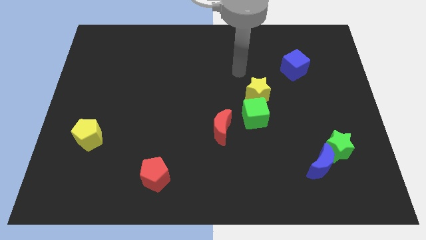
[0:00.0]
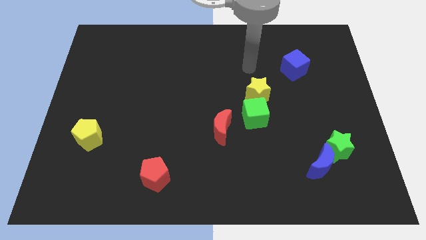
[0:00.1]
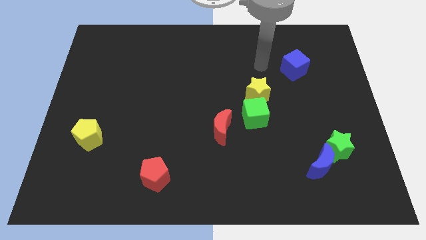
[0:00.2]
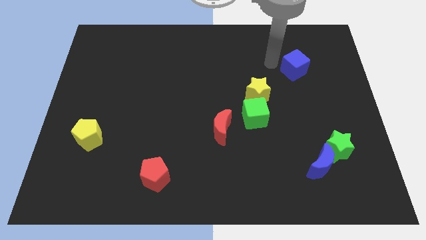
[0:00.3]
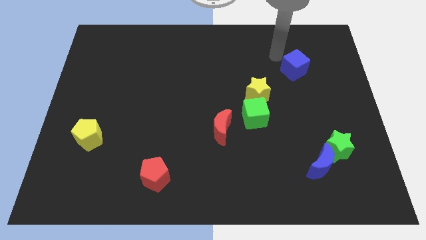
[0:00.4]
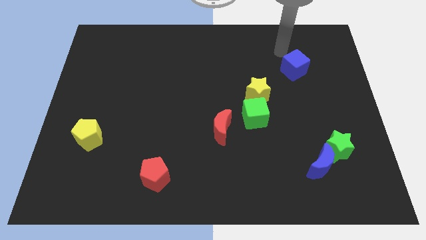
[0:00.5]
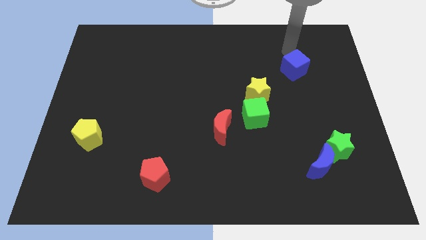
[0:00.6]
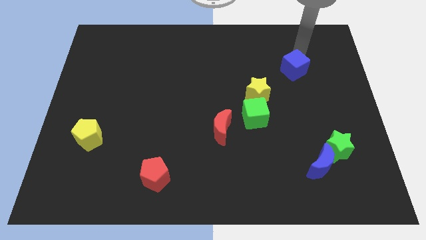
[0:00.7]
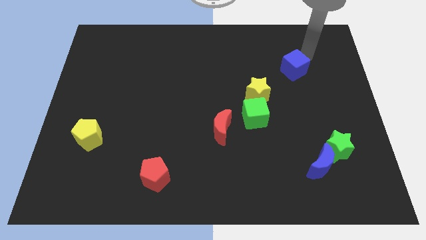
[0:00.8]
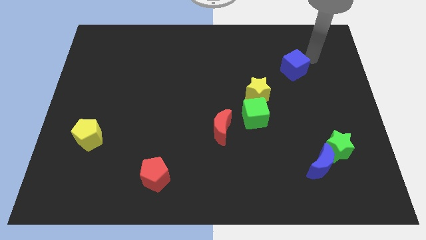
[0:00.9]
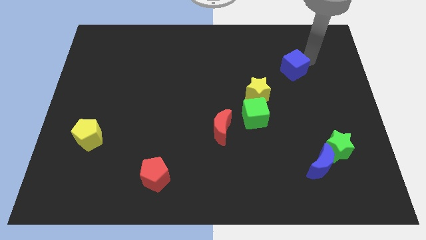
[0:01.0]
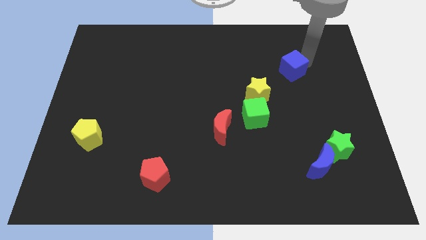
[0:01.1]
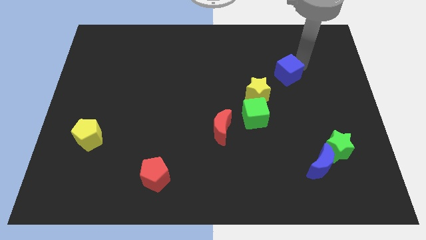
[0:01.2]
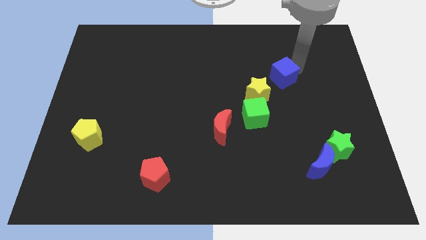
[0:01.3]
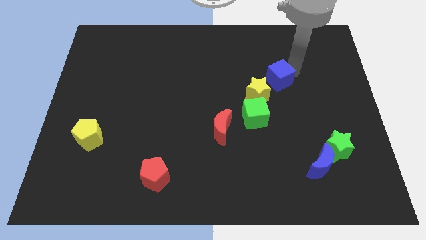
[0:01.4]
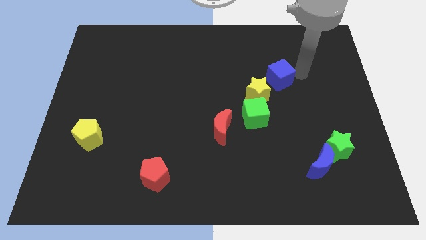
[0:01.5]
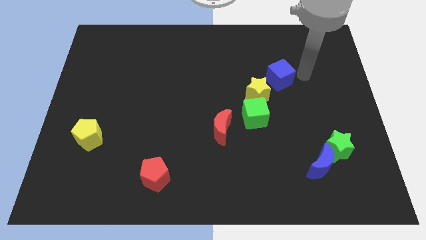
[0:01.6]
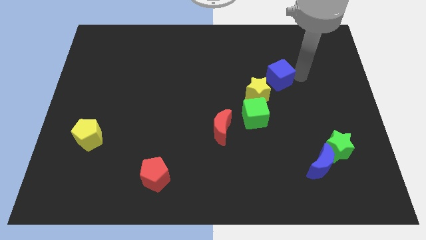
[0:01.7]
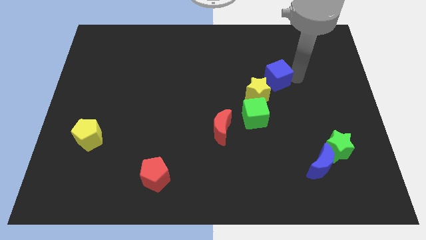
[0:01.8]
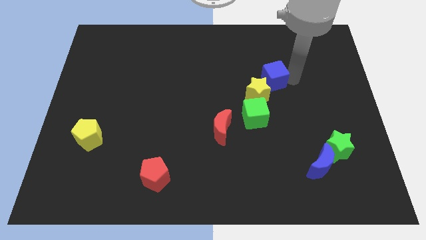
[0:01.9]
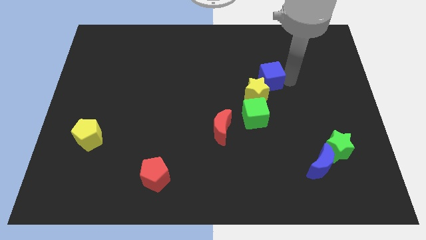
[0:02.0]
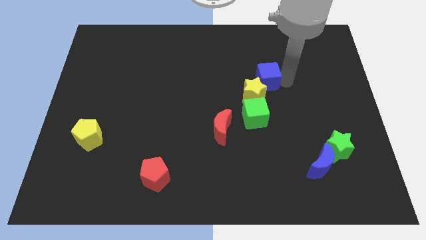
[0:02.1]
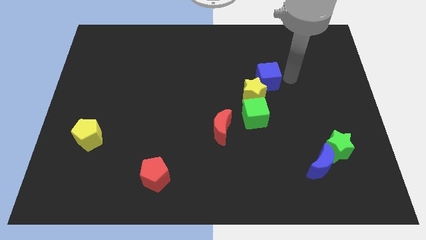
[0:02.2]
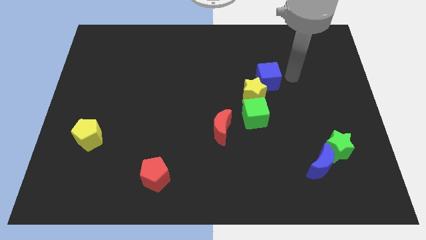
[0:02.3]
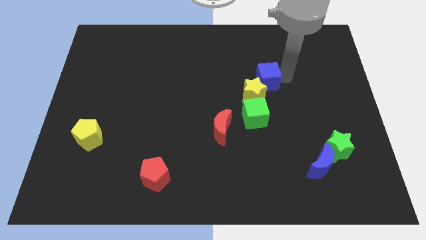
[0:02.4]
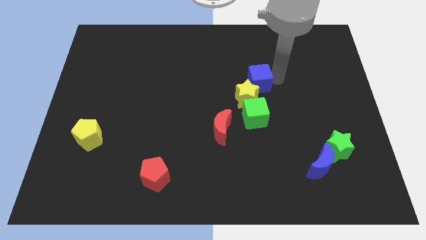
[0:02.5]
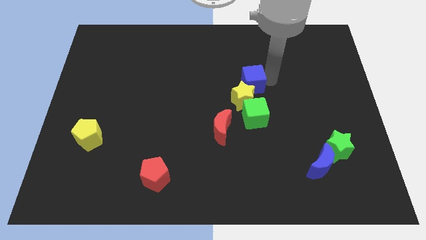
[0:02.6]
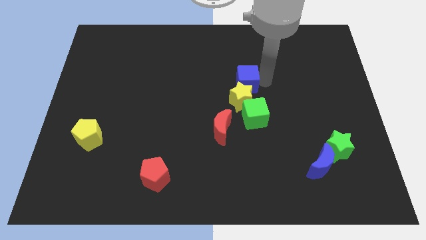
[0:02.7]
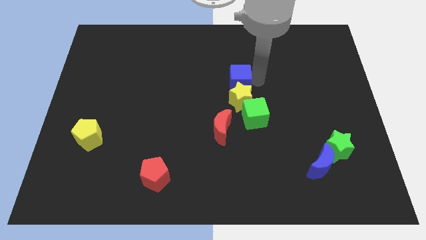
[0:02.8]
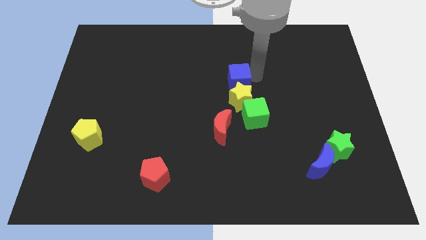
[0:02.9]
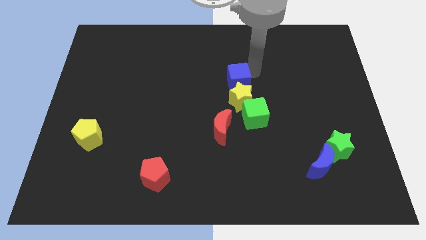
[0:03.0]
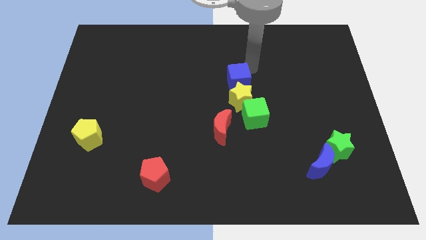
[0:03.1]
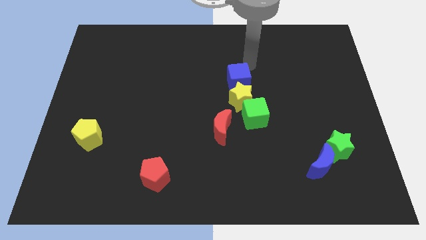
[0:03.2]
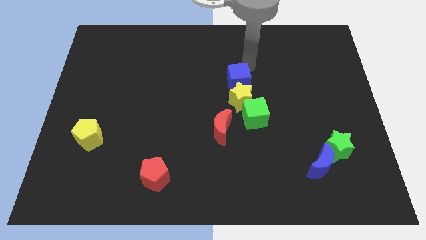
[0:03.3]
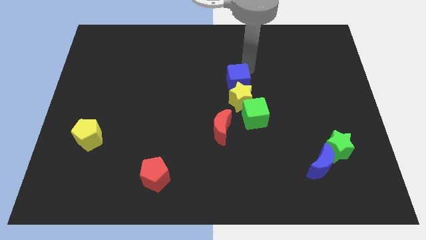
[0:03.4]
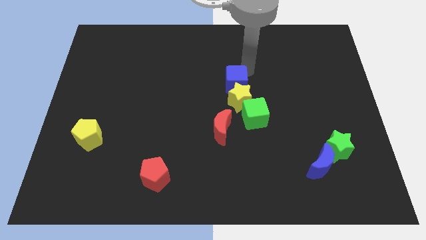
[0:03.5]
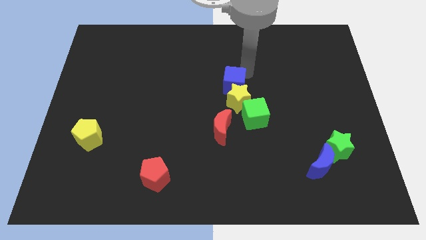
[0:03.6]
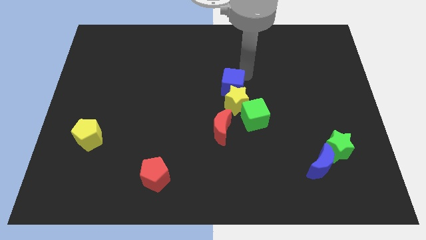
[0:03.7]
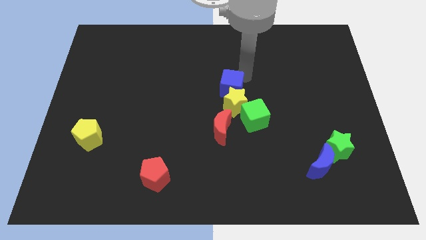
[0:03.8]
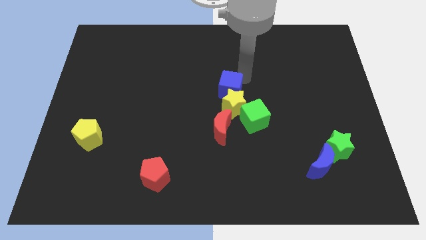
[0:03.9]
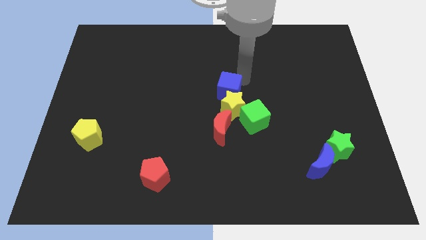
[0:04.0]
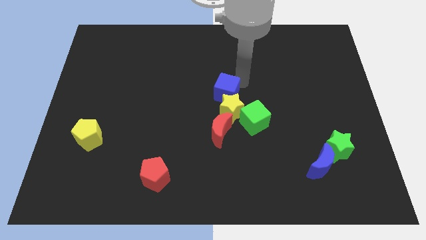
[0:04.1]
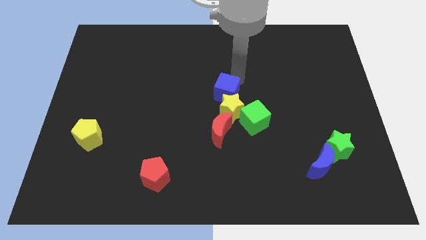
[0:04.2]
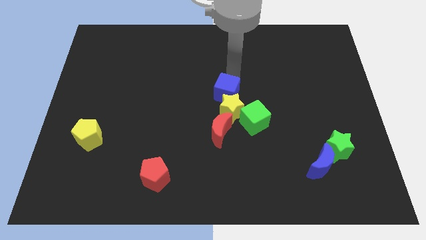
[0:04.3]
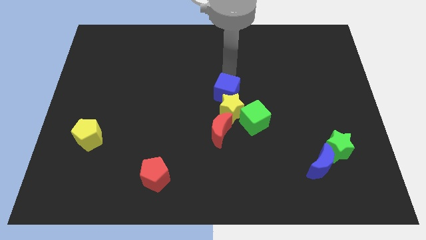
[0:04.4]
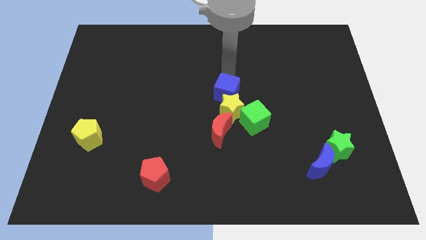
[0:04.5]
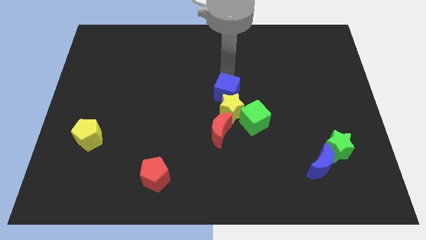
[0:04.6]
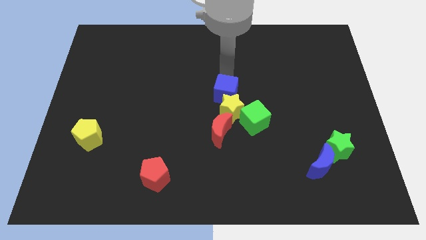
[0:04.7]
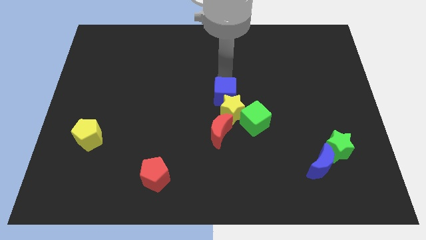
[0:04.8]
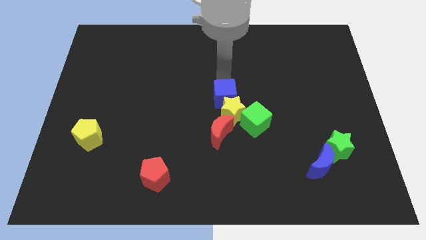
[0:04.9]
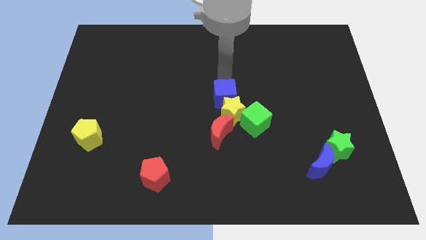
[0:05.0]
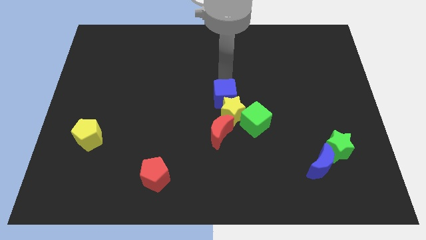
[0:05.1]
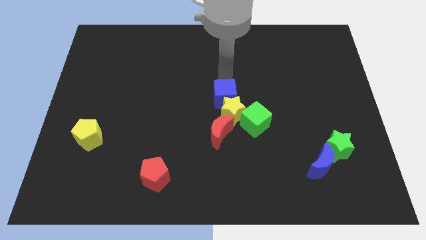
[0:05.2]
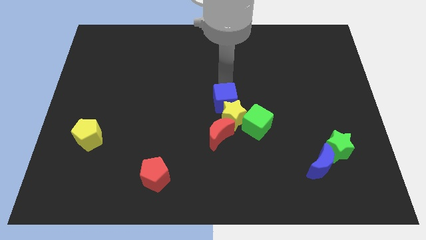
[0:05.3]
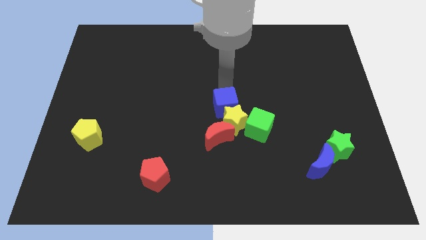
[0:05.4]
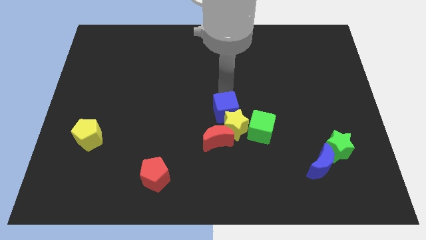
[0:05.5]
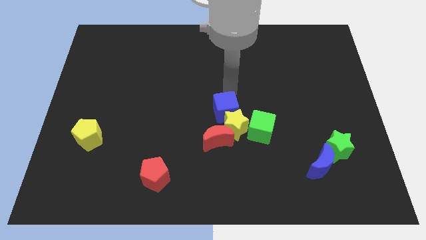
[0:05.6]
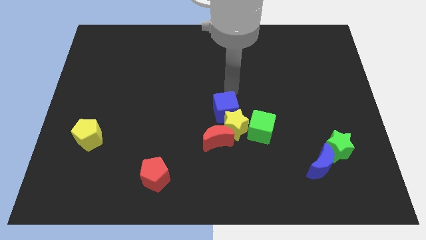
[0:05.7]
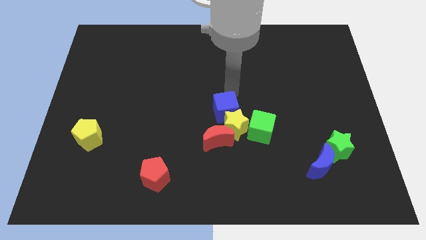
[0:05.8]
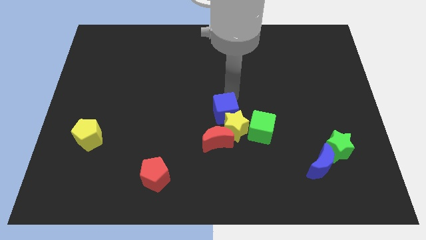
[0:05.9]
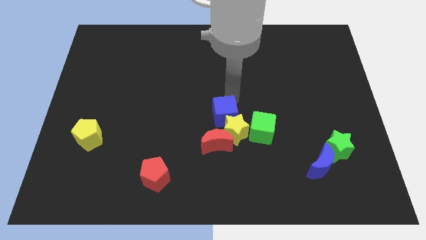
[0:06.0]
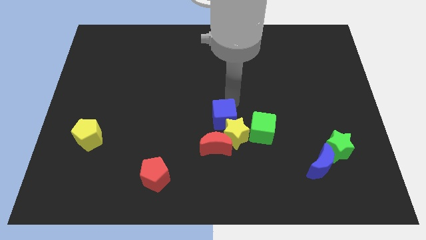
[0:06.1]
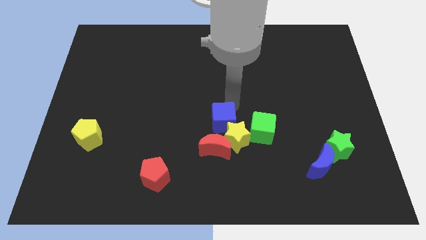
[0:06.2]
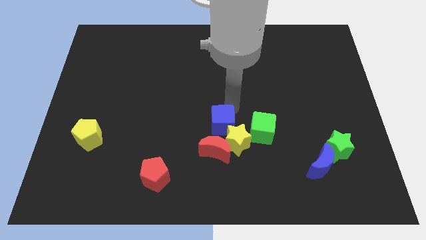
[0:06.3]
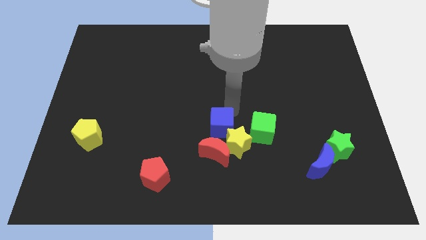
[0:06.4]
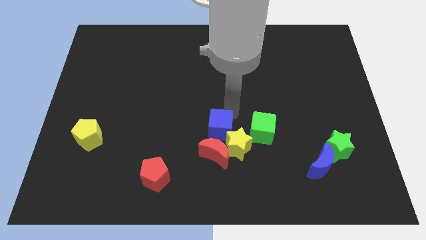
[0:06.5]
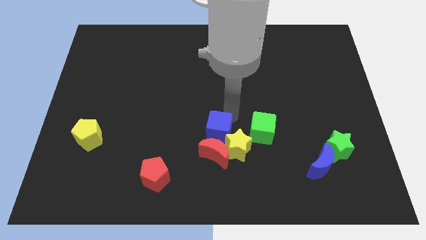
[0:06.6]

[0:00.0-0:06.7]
put the blue cube close to the red moon

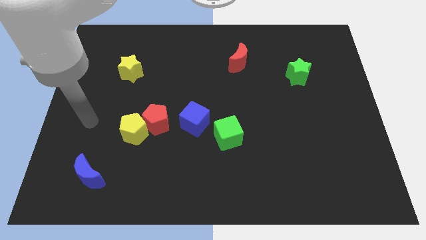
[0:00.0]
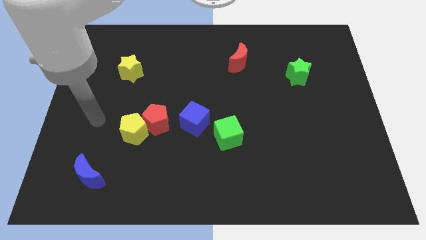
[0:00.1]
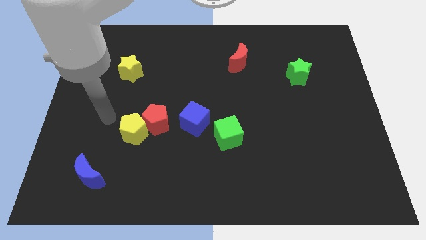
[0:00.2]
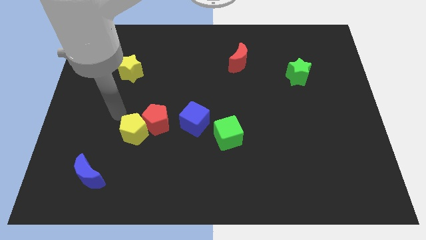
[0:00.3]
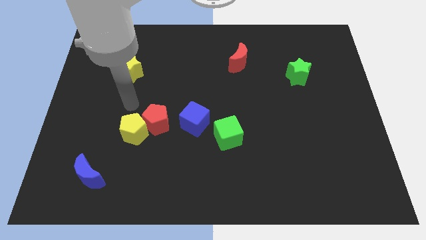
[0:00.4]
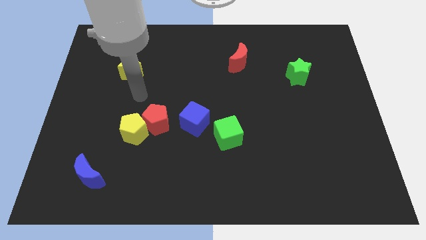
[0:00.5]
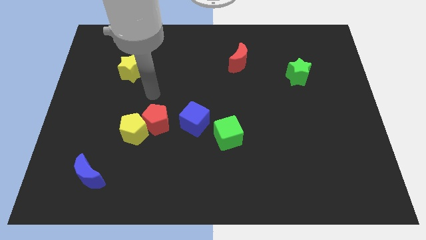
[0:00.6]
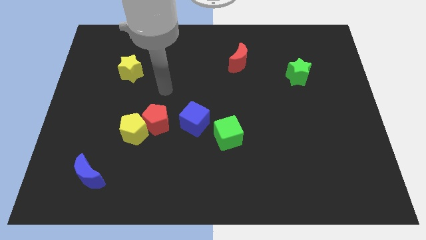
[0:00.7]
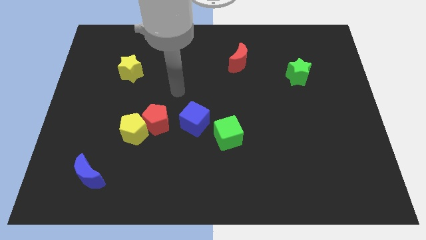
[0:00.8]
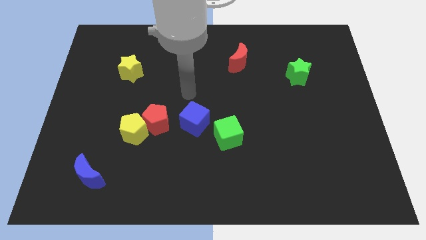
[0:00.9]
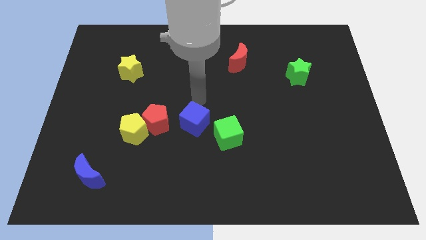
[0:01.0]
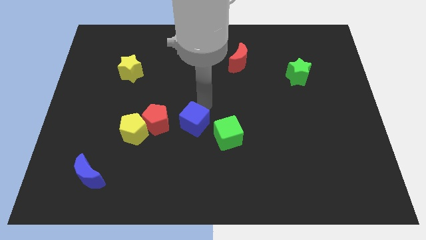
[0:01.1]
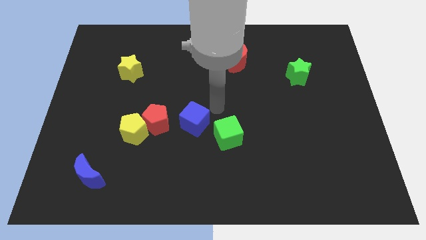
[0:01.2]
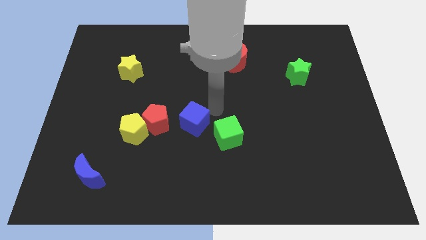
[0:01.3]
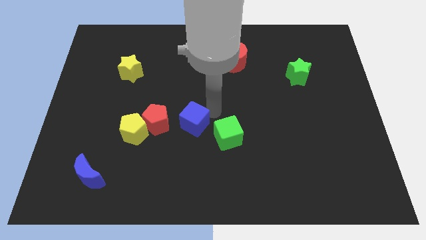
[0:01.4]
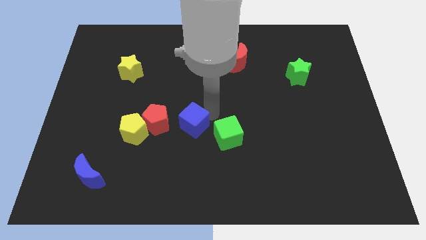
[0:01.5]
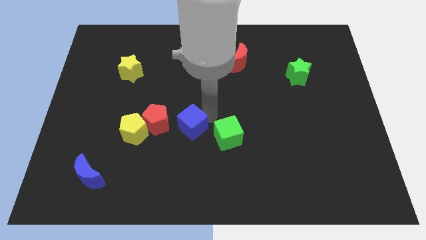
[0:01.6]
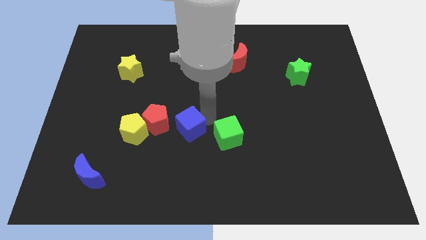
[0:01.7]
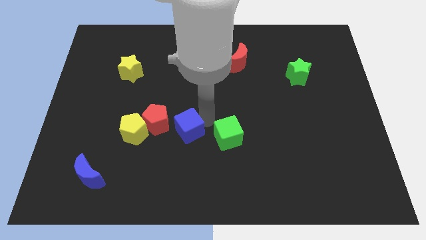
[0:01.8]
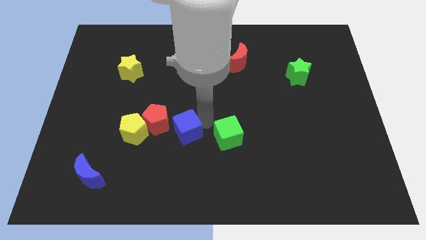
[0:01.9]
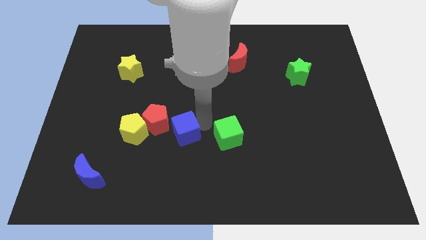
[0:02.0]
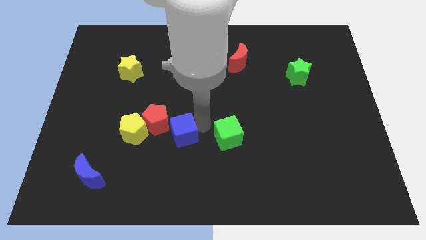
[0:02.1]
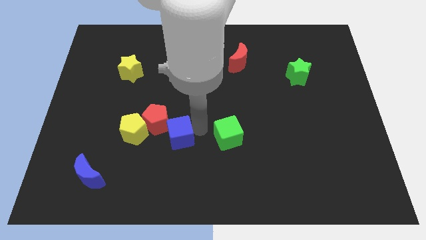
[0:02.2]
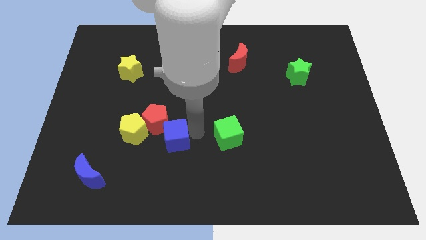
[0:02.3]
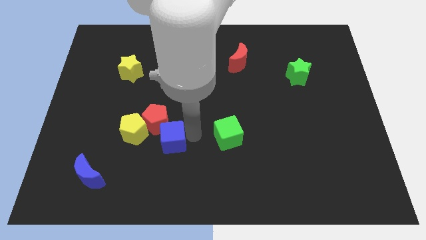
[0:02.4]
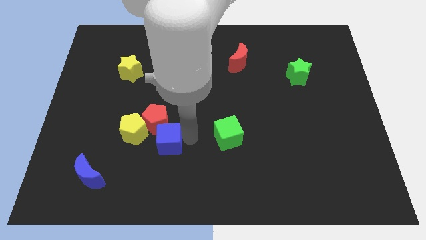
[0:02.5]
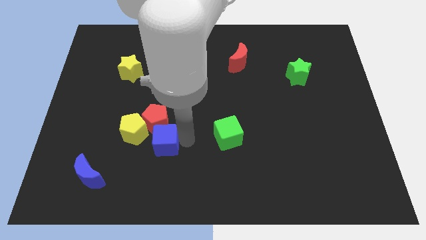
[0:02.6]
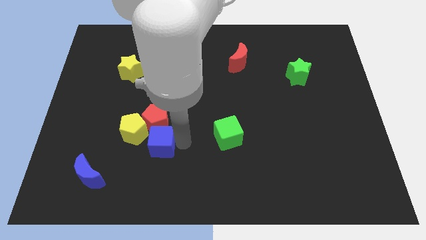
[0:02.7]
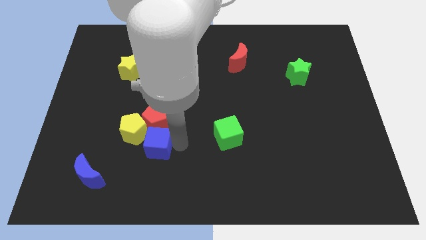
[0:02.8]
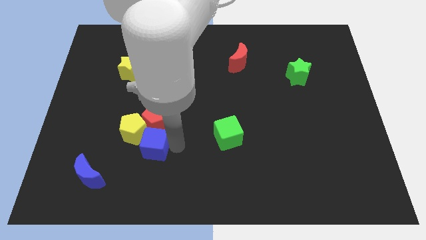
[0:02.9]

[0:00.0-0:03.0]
slide the blue cube next to the yellow pentagon
